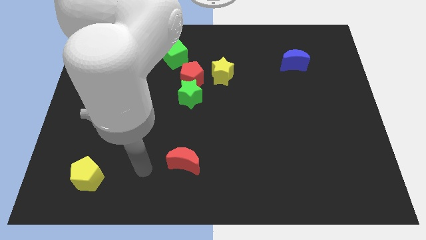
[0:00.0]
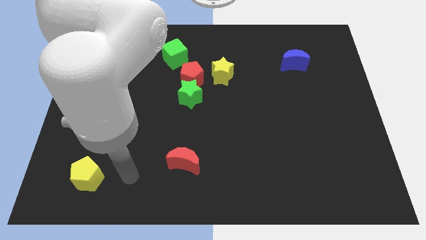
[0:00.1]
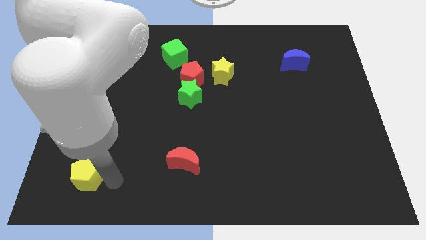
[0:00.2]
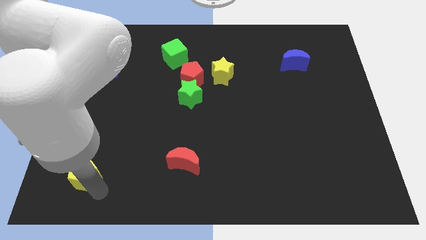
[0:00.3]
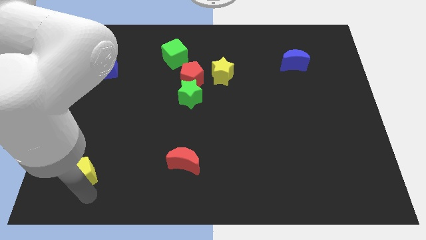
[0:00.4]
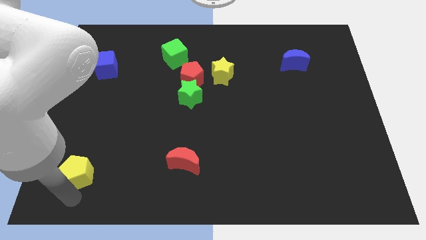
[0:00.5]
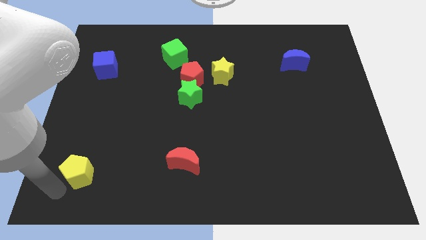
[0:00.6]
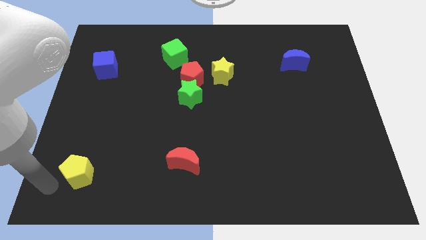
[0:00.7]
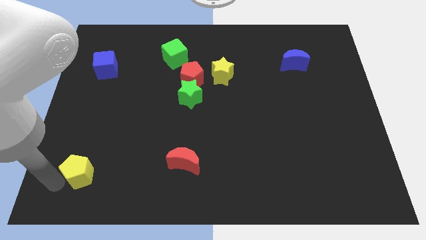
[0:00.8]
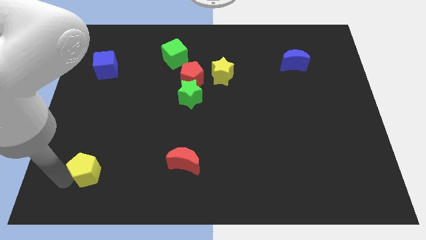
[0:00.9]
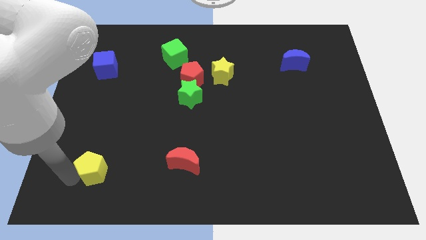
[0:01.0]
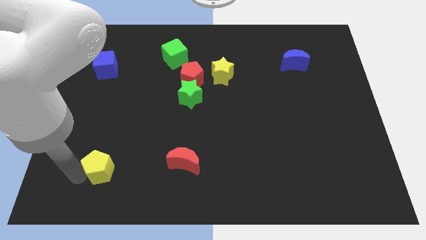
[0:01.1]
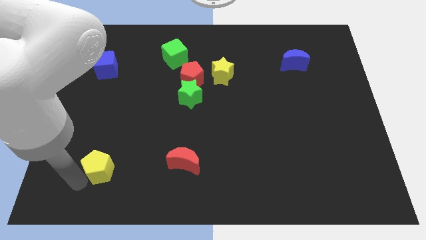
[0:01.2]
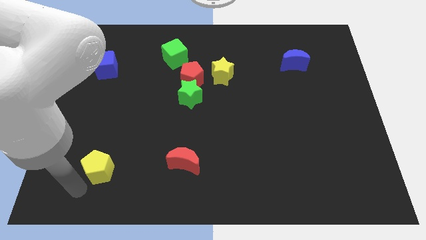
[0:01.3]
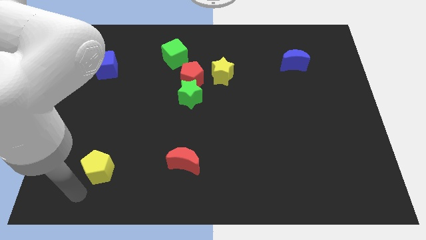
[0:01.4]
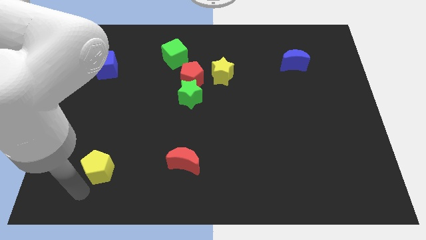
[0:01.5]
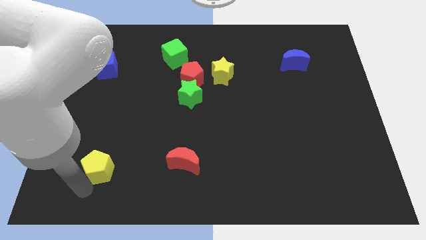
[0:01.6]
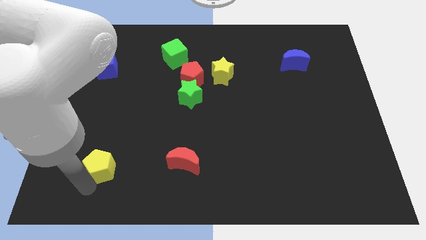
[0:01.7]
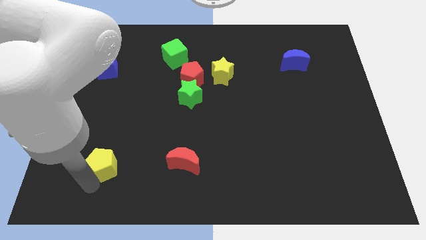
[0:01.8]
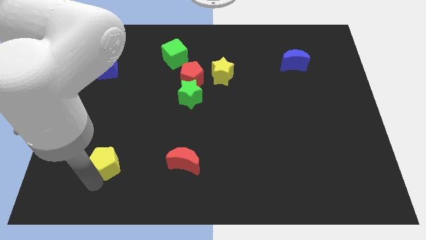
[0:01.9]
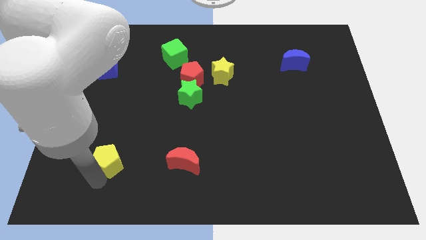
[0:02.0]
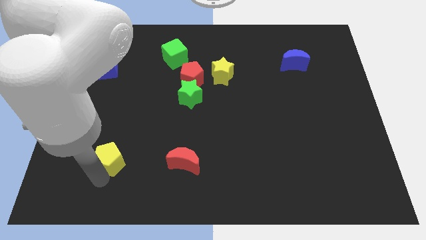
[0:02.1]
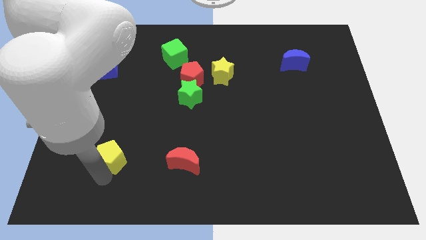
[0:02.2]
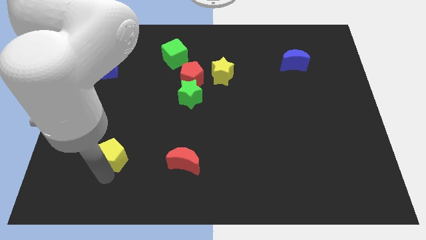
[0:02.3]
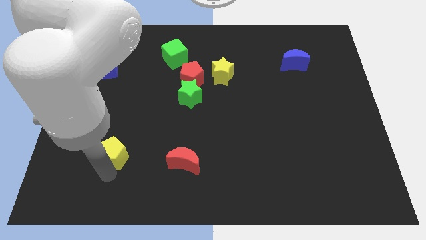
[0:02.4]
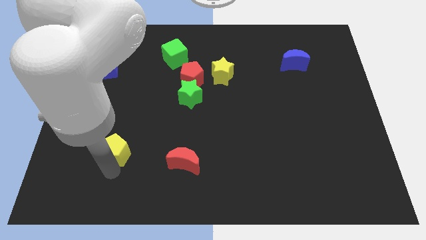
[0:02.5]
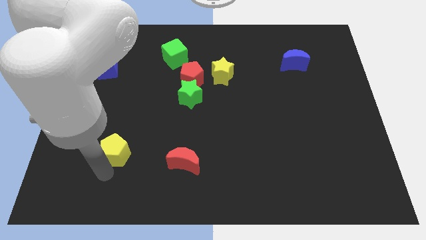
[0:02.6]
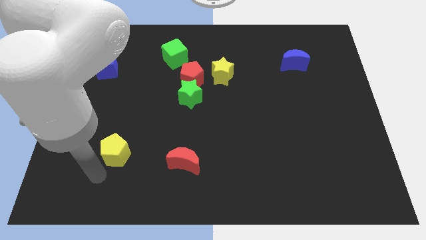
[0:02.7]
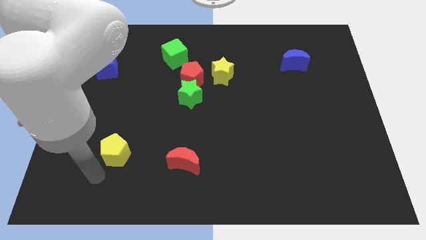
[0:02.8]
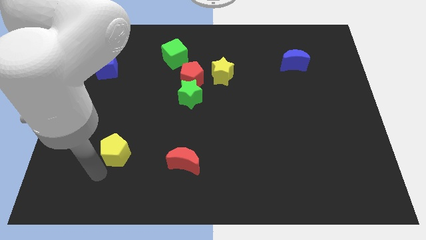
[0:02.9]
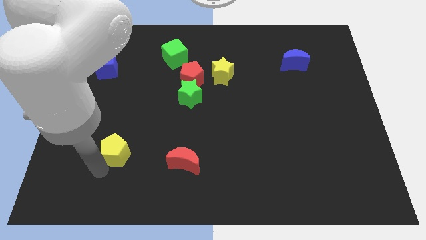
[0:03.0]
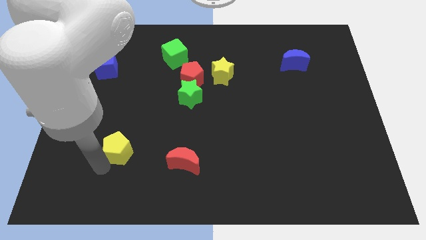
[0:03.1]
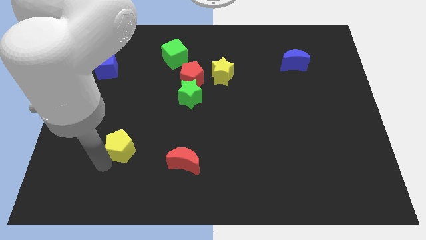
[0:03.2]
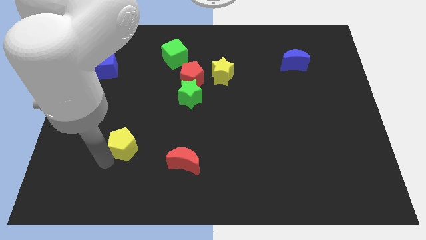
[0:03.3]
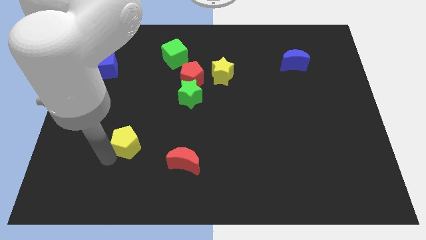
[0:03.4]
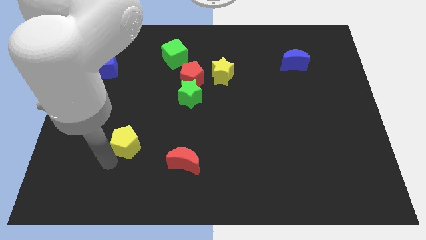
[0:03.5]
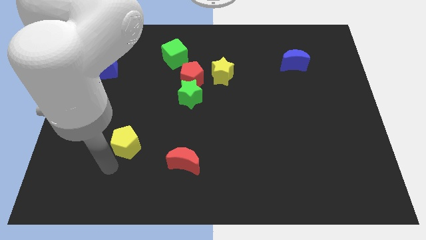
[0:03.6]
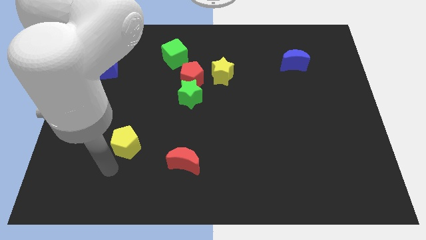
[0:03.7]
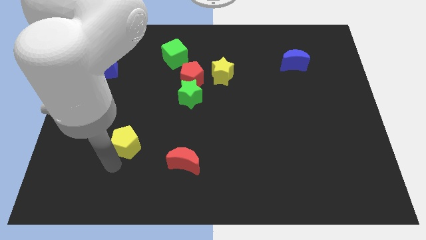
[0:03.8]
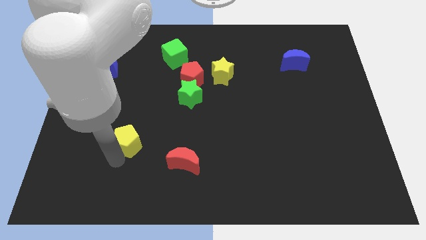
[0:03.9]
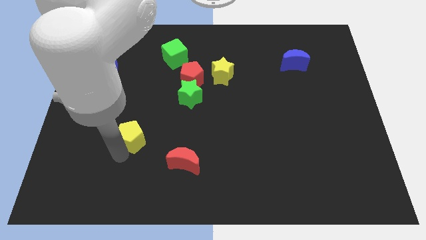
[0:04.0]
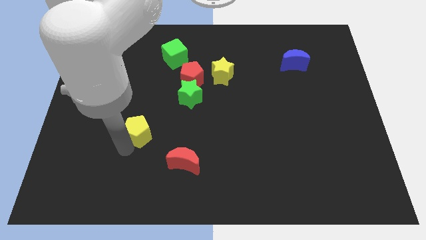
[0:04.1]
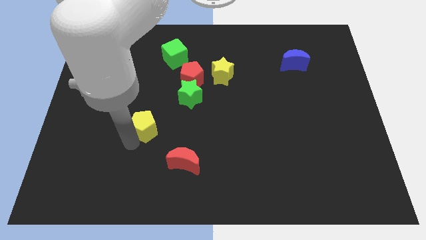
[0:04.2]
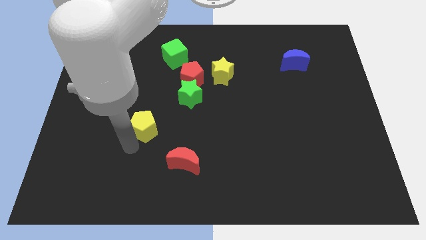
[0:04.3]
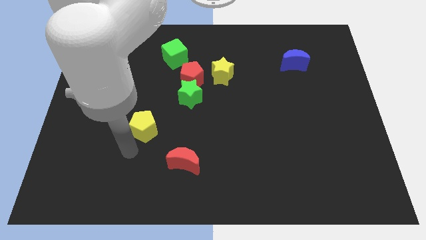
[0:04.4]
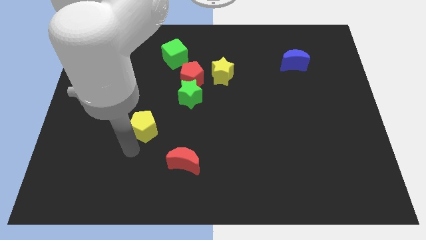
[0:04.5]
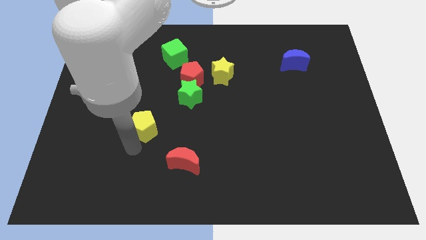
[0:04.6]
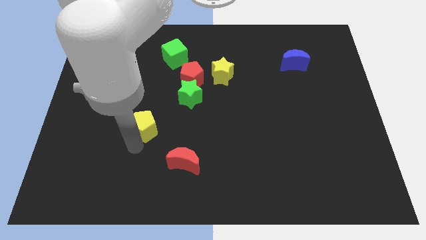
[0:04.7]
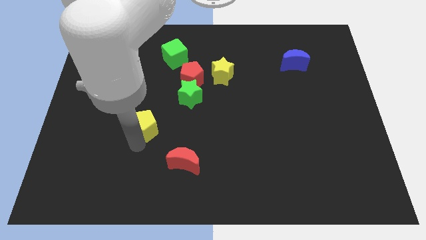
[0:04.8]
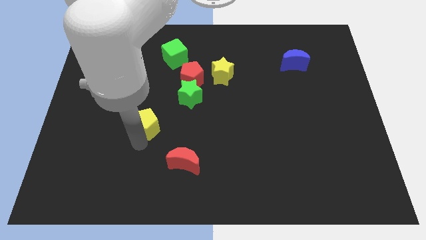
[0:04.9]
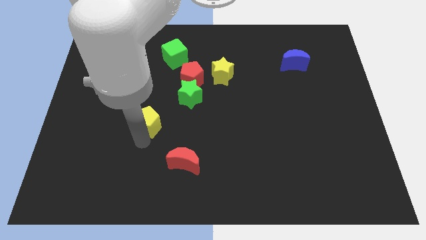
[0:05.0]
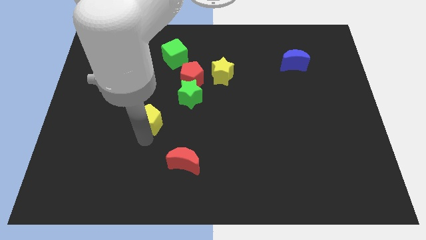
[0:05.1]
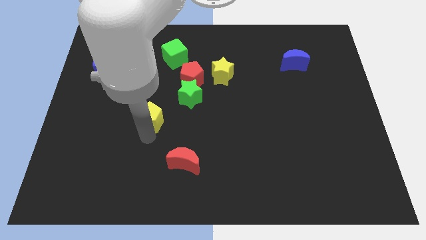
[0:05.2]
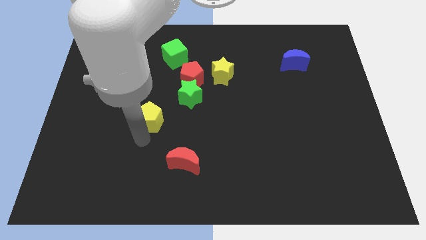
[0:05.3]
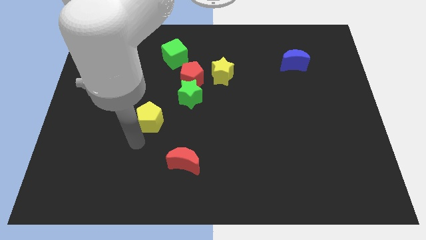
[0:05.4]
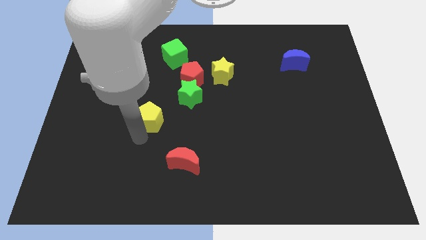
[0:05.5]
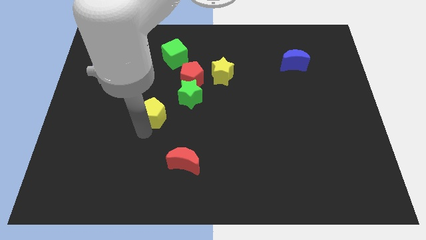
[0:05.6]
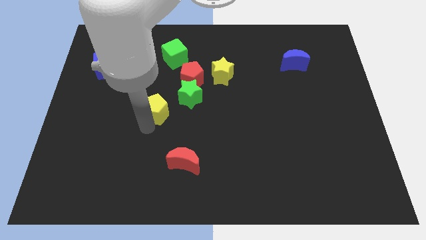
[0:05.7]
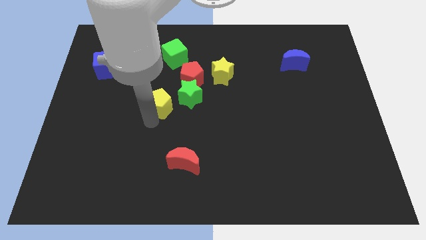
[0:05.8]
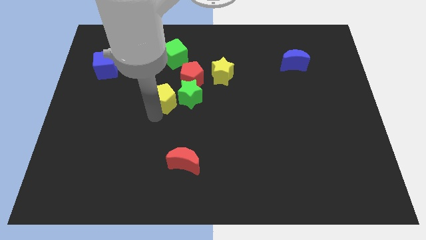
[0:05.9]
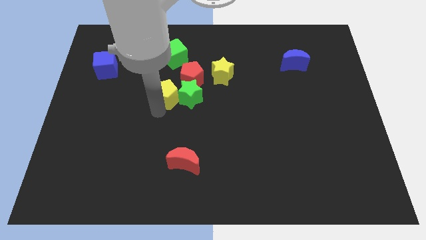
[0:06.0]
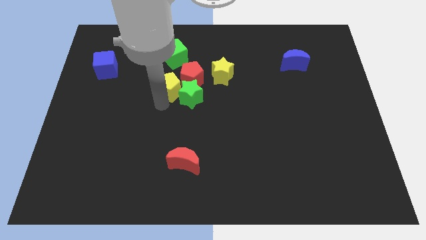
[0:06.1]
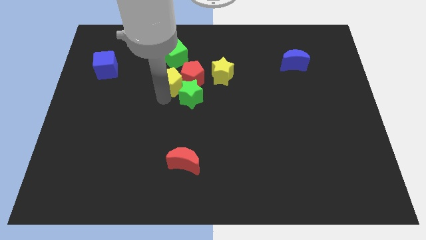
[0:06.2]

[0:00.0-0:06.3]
put the yellow pentagon to the red pentagon

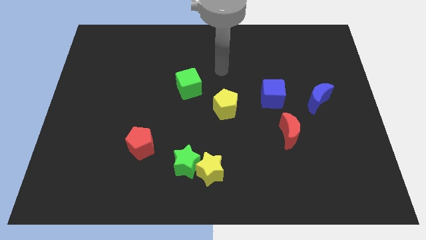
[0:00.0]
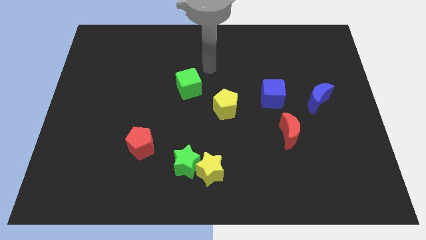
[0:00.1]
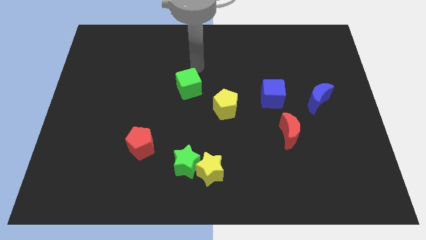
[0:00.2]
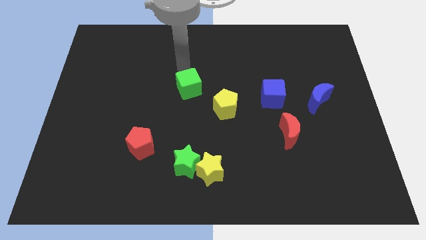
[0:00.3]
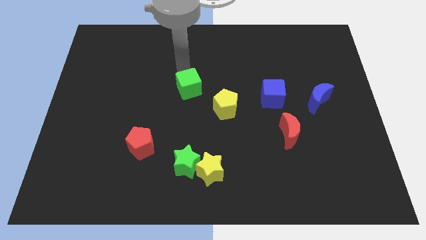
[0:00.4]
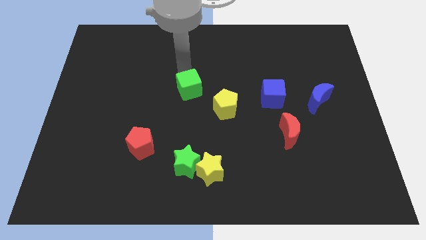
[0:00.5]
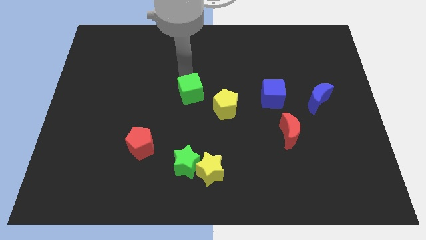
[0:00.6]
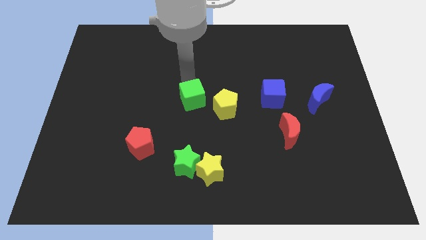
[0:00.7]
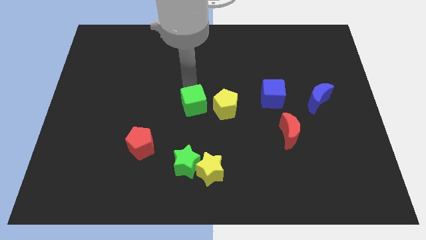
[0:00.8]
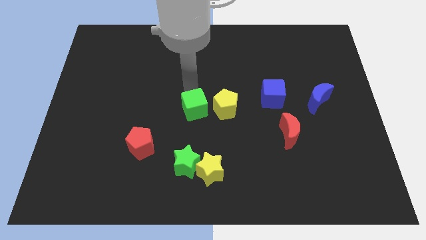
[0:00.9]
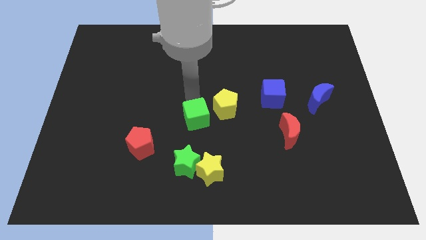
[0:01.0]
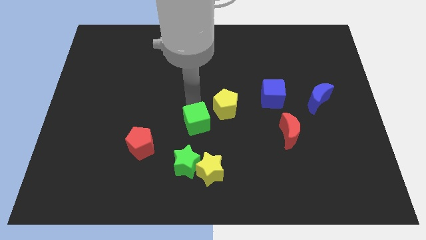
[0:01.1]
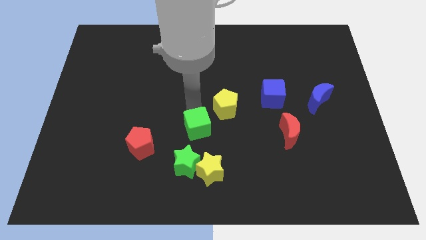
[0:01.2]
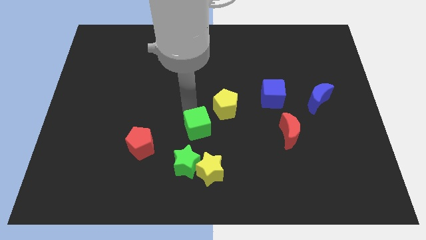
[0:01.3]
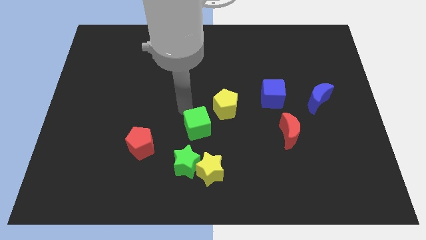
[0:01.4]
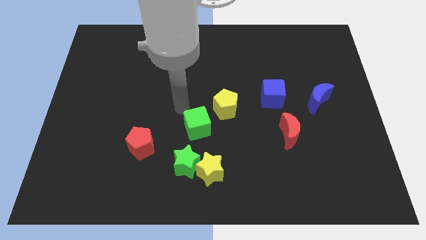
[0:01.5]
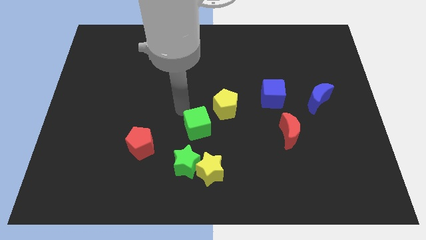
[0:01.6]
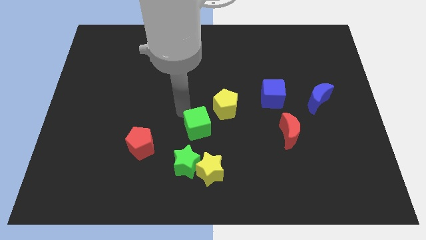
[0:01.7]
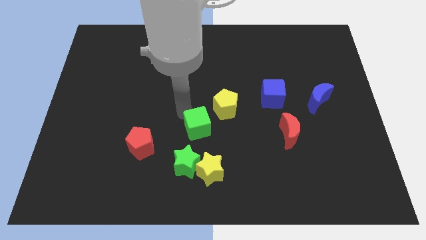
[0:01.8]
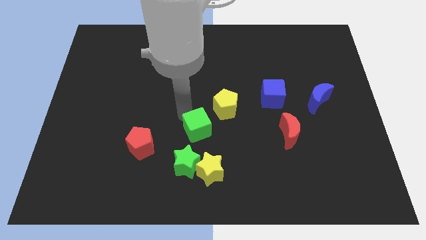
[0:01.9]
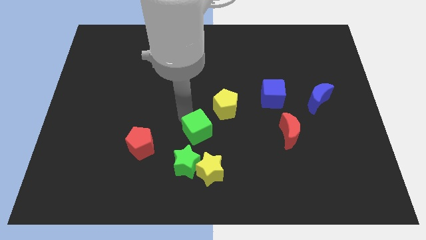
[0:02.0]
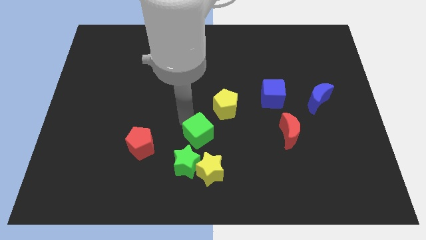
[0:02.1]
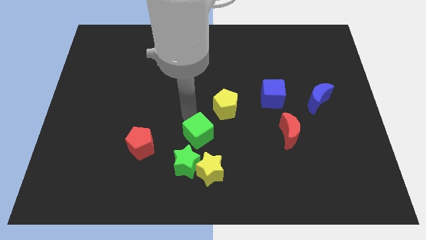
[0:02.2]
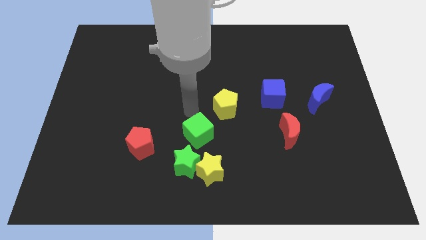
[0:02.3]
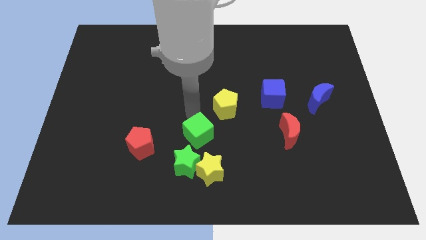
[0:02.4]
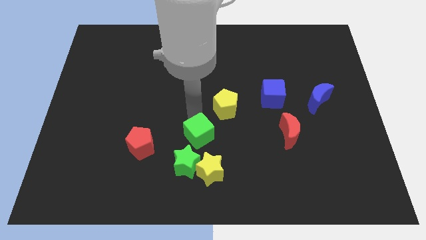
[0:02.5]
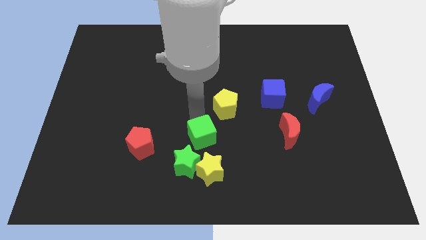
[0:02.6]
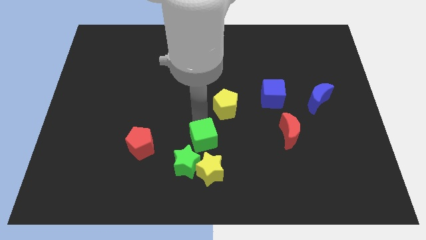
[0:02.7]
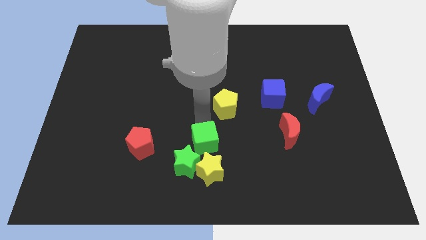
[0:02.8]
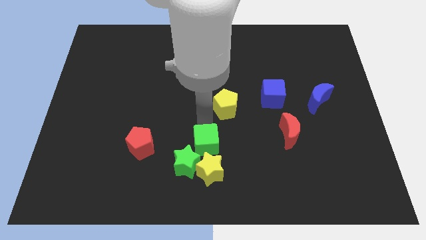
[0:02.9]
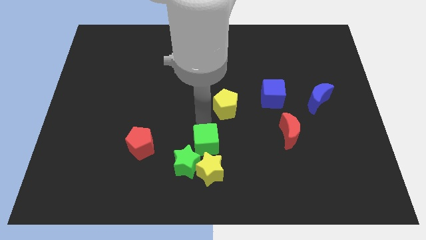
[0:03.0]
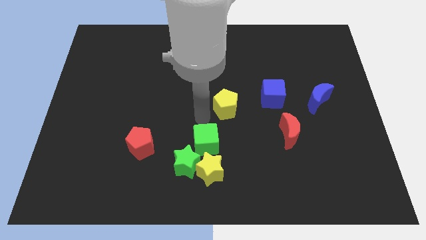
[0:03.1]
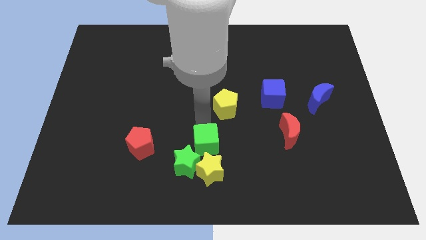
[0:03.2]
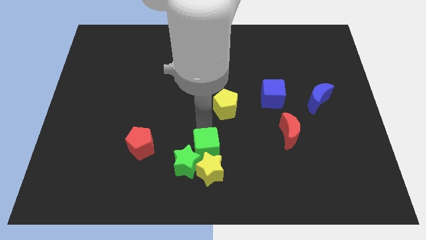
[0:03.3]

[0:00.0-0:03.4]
push the green cube next to the yellow star
